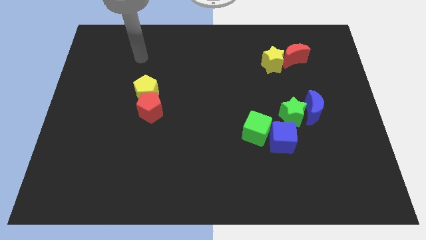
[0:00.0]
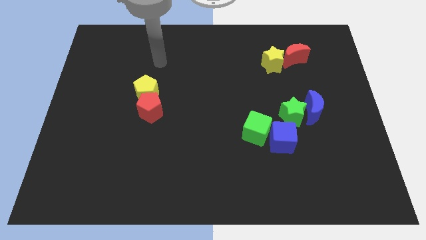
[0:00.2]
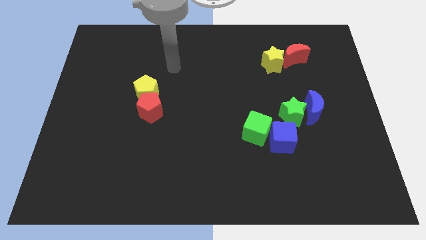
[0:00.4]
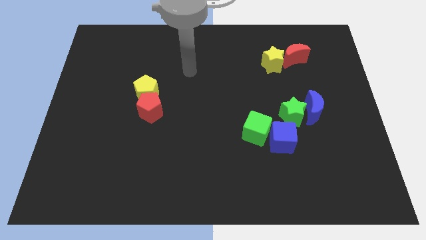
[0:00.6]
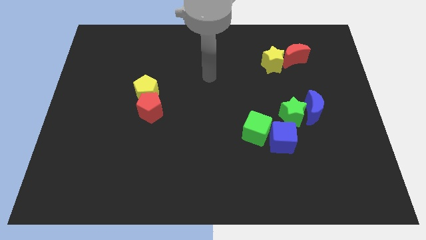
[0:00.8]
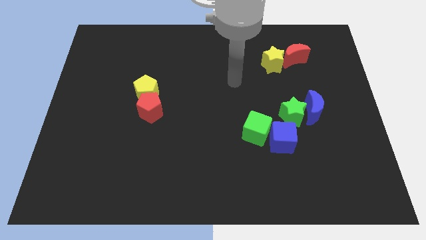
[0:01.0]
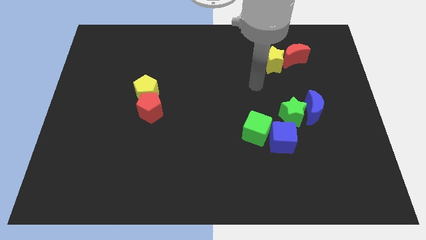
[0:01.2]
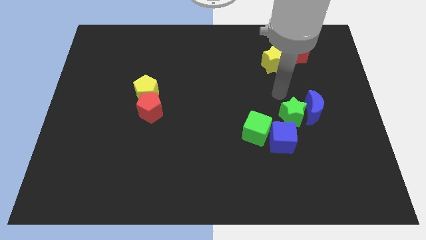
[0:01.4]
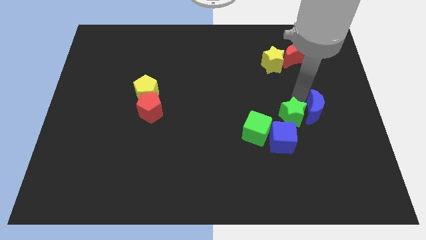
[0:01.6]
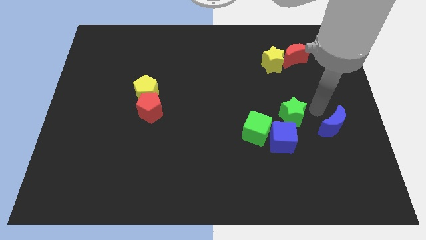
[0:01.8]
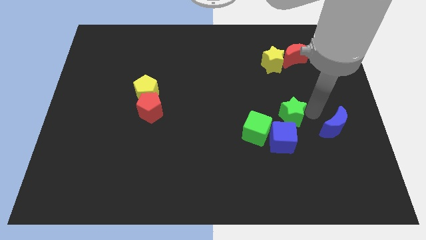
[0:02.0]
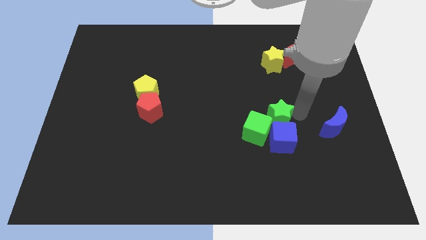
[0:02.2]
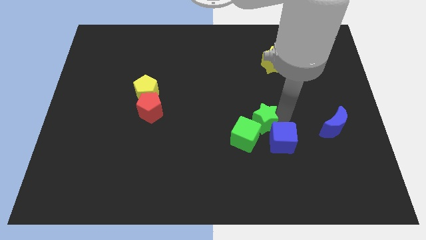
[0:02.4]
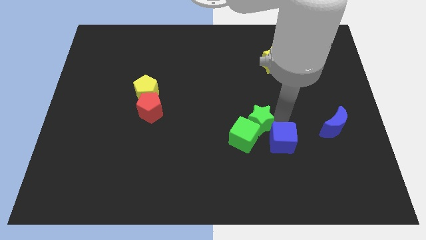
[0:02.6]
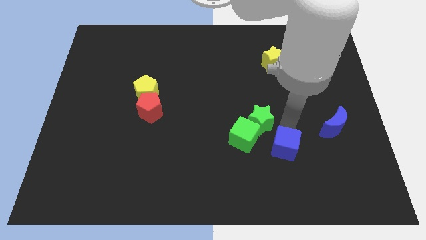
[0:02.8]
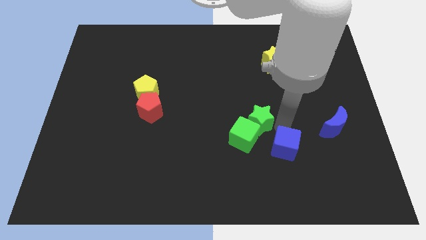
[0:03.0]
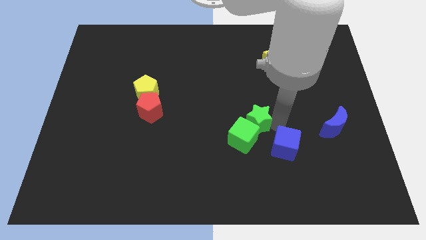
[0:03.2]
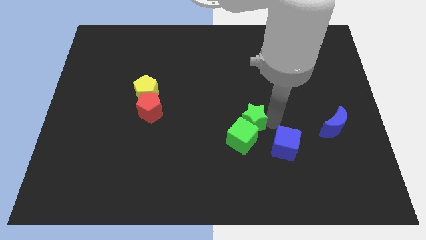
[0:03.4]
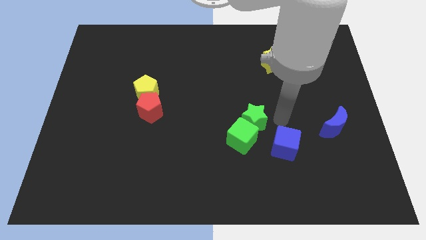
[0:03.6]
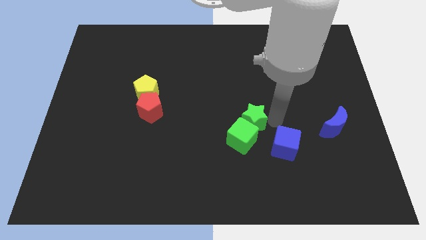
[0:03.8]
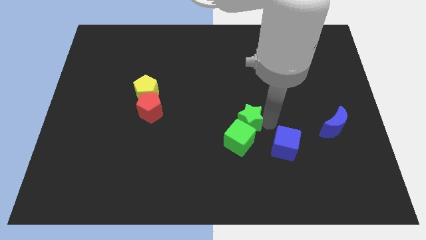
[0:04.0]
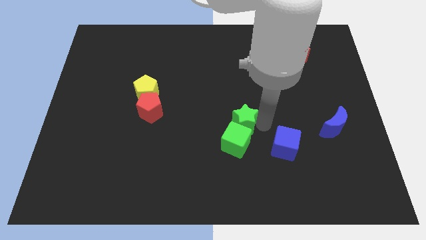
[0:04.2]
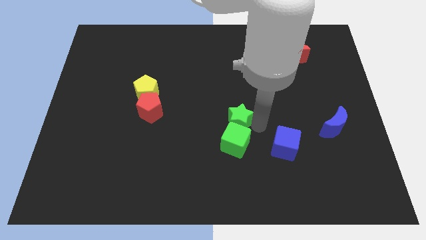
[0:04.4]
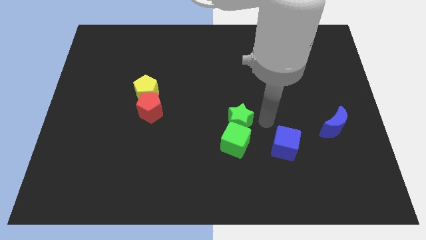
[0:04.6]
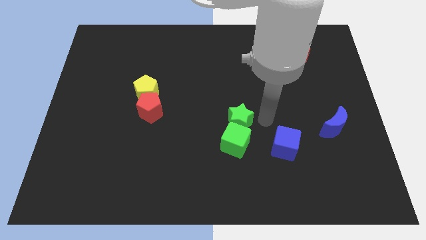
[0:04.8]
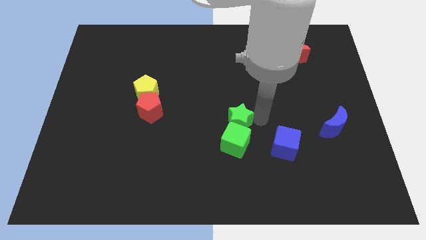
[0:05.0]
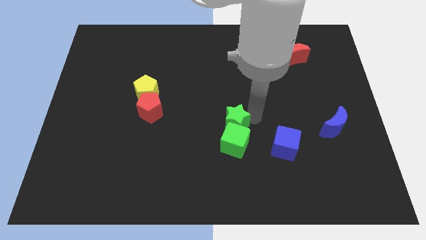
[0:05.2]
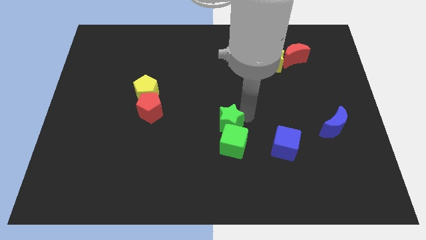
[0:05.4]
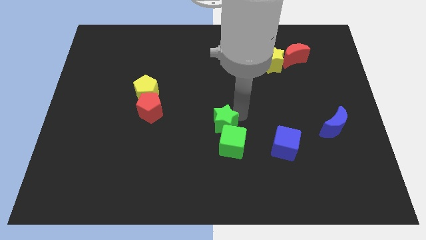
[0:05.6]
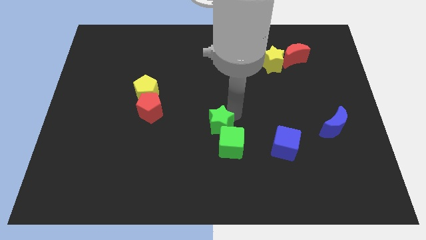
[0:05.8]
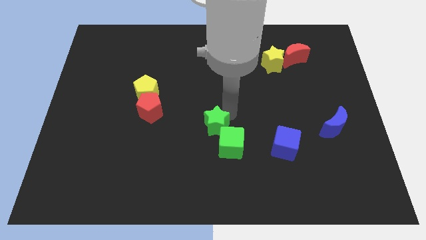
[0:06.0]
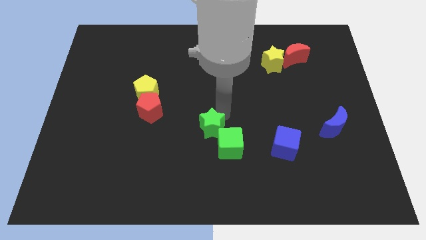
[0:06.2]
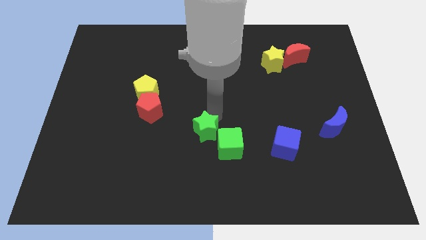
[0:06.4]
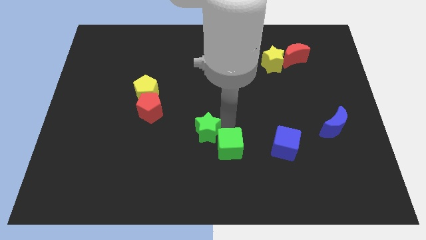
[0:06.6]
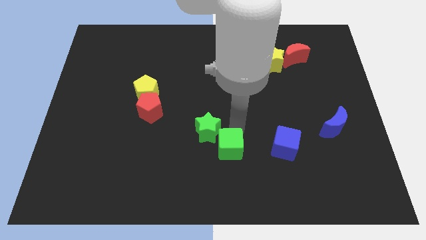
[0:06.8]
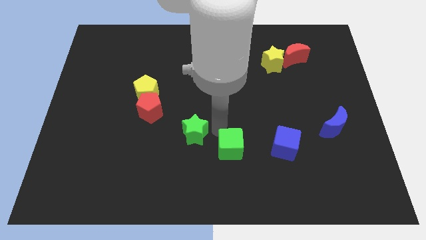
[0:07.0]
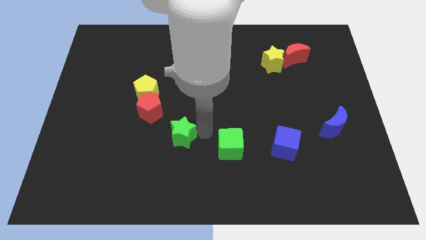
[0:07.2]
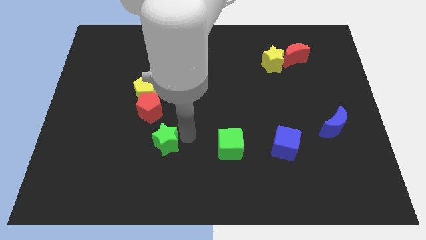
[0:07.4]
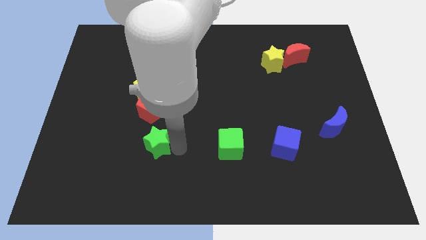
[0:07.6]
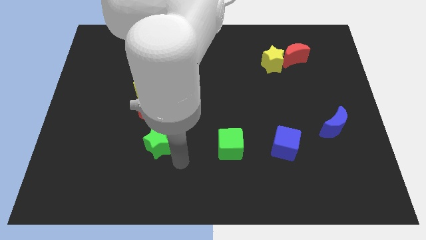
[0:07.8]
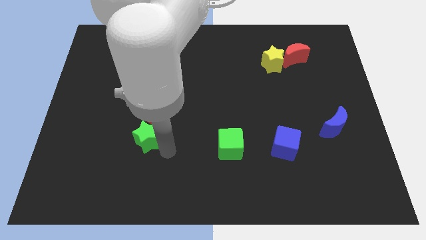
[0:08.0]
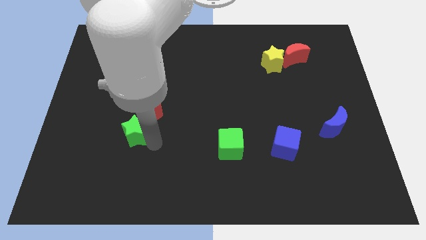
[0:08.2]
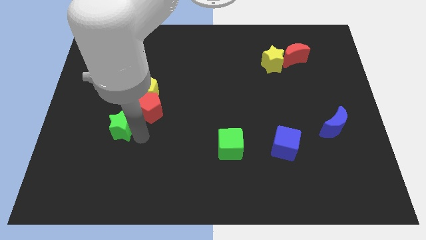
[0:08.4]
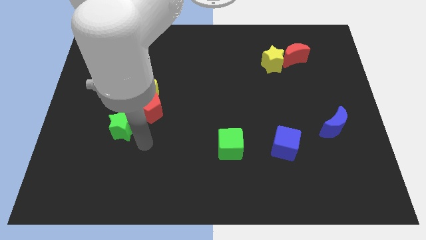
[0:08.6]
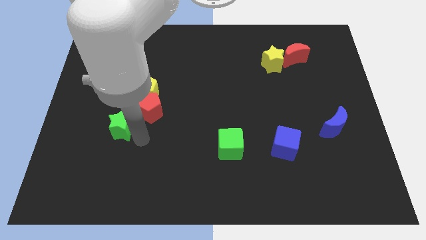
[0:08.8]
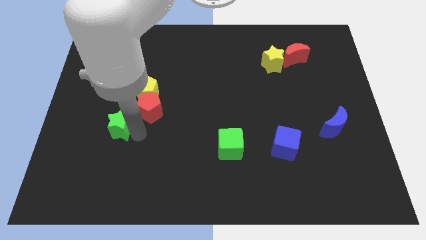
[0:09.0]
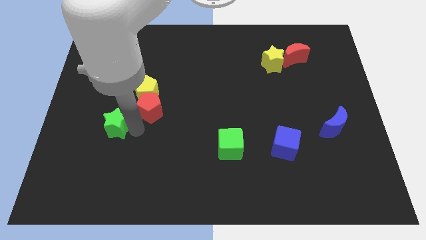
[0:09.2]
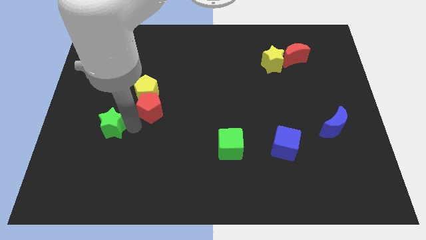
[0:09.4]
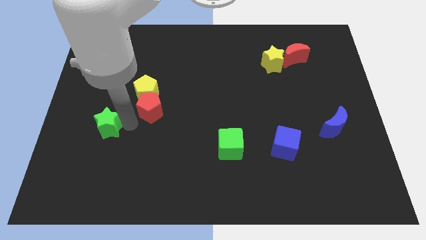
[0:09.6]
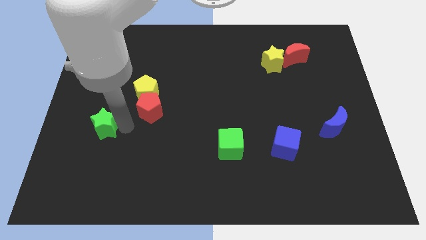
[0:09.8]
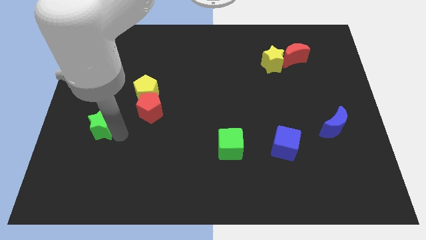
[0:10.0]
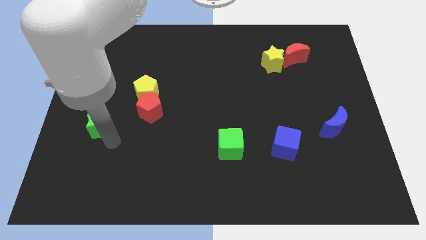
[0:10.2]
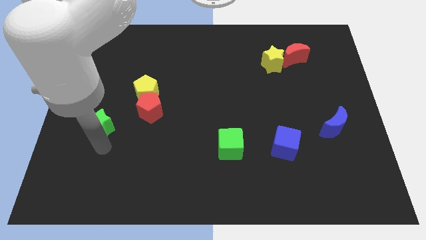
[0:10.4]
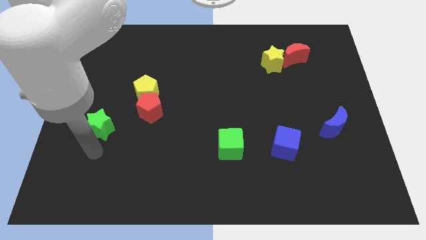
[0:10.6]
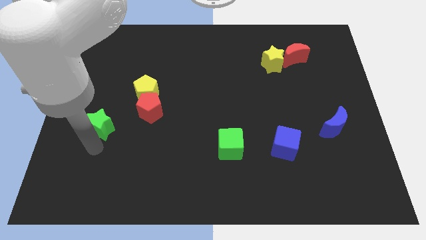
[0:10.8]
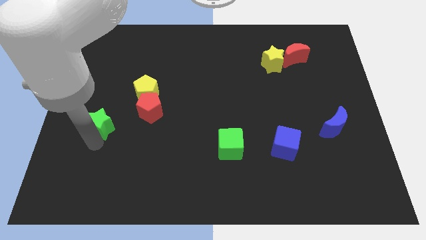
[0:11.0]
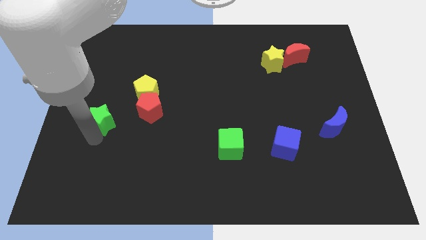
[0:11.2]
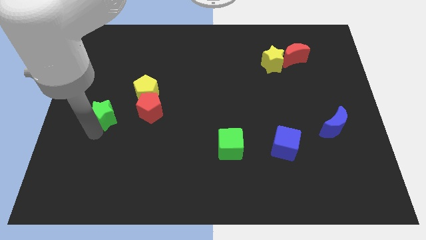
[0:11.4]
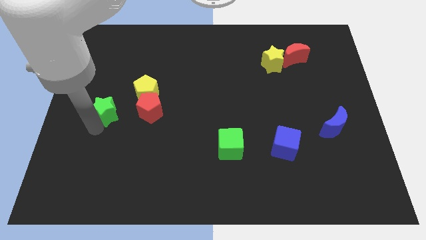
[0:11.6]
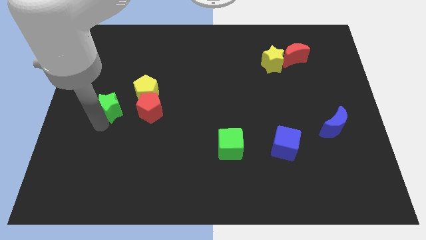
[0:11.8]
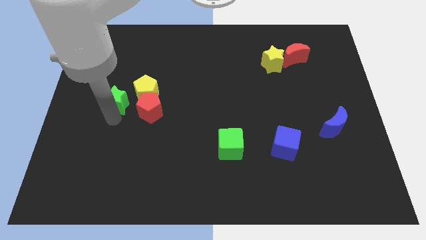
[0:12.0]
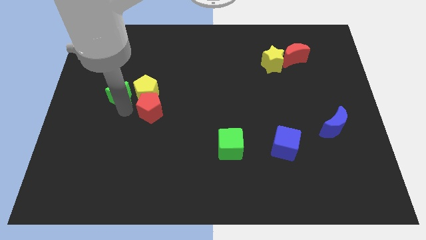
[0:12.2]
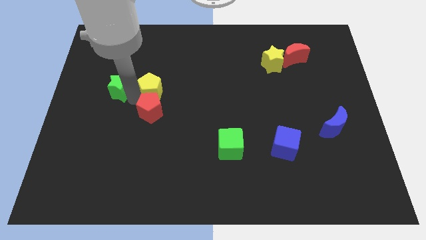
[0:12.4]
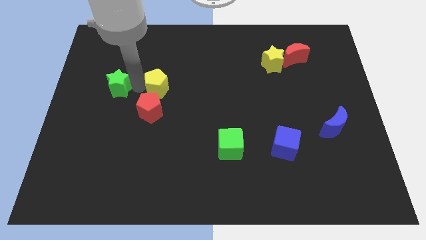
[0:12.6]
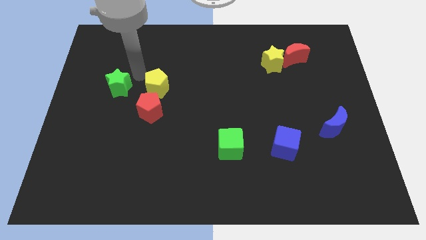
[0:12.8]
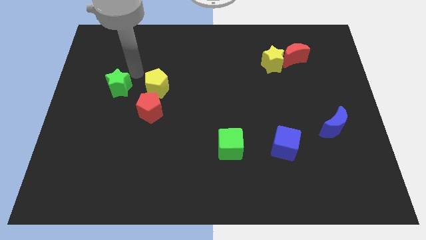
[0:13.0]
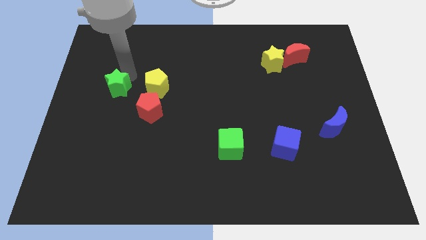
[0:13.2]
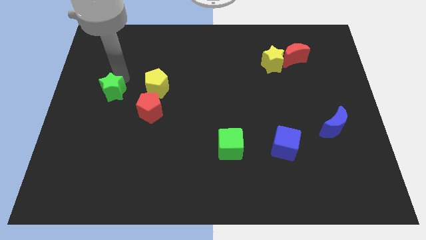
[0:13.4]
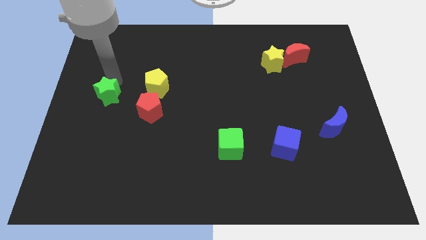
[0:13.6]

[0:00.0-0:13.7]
slide the green star to the center left
